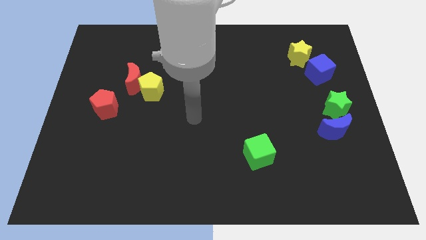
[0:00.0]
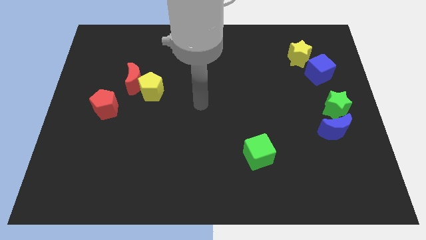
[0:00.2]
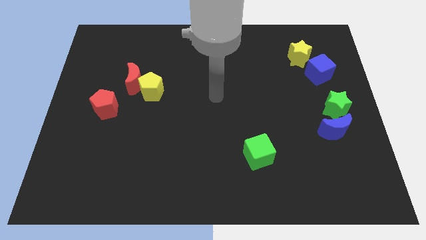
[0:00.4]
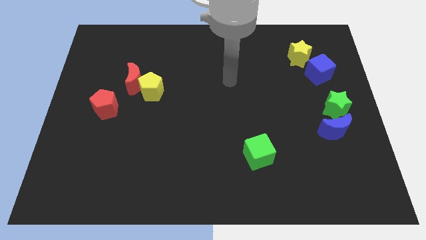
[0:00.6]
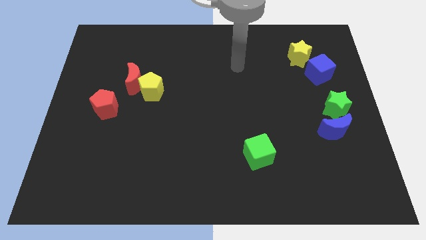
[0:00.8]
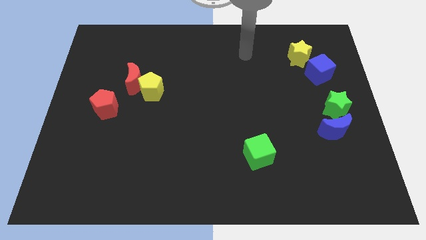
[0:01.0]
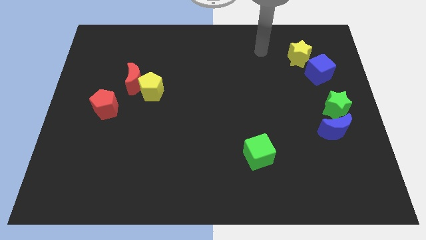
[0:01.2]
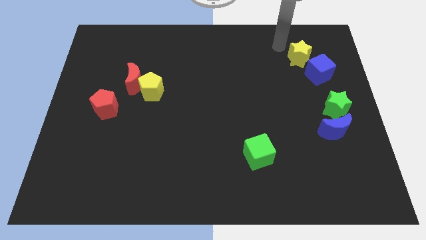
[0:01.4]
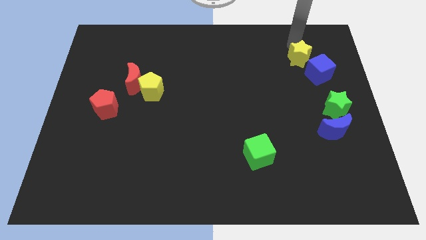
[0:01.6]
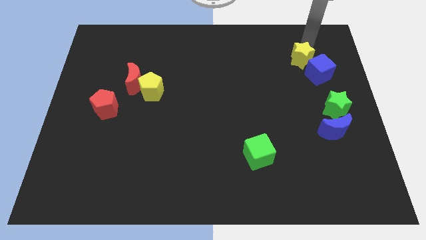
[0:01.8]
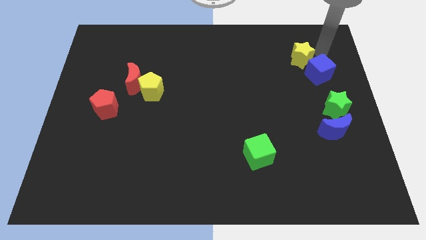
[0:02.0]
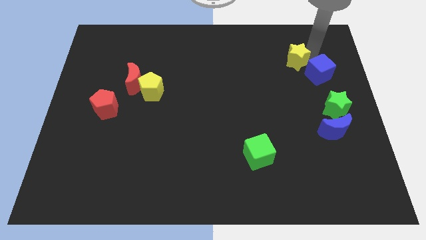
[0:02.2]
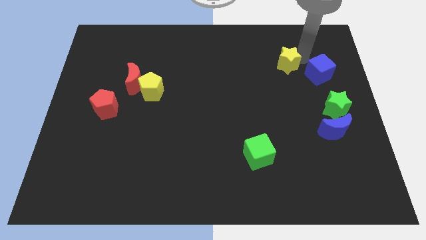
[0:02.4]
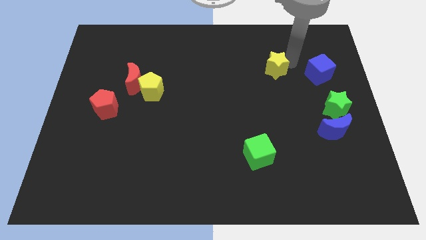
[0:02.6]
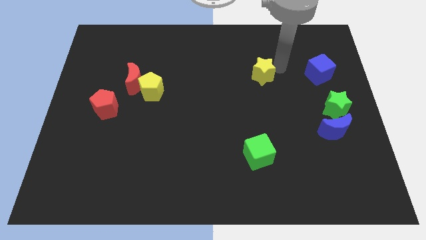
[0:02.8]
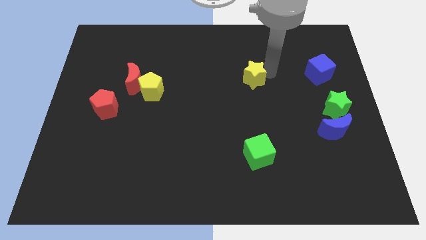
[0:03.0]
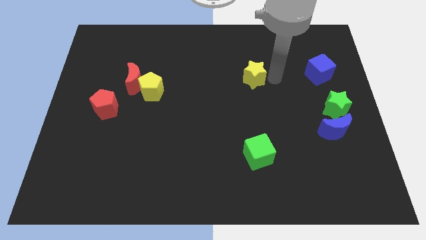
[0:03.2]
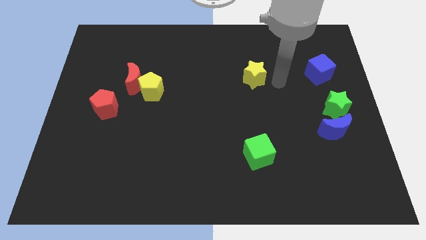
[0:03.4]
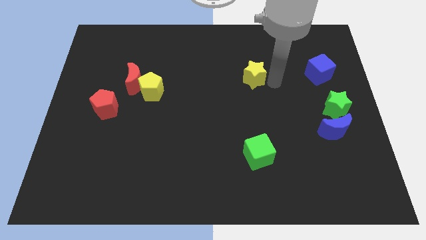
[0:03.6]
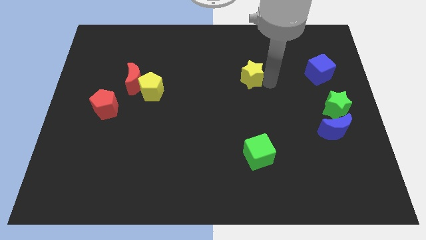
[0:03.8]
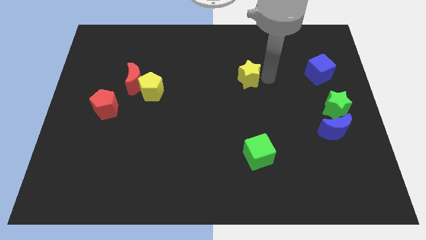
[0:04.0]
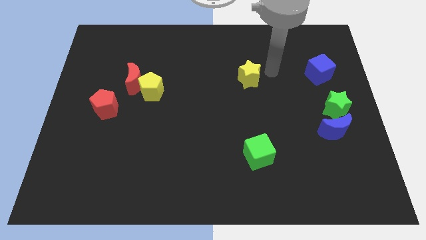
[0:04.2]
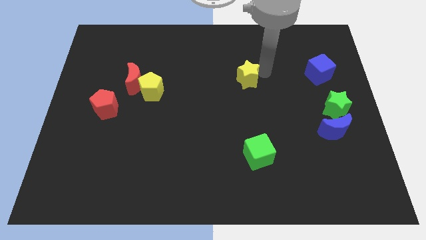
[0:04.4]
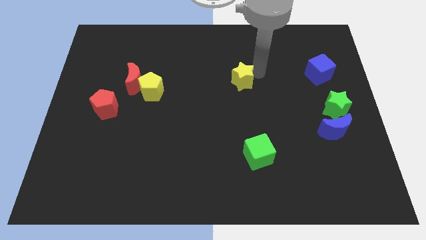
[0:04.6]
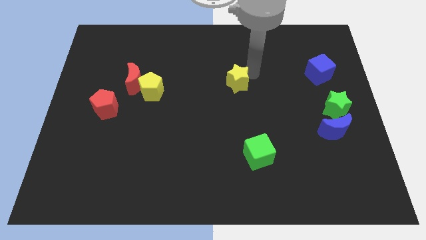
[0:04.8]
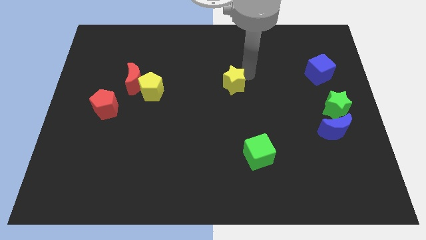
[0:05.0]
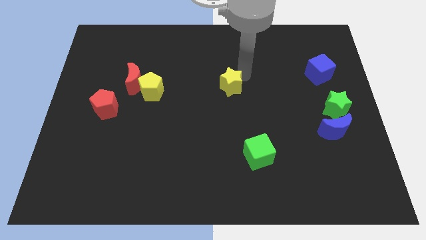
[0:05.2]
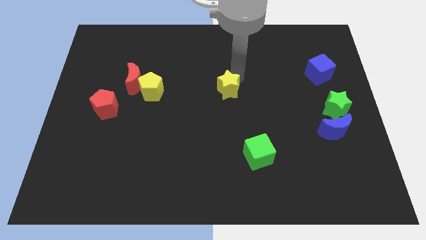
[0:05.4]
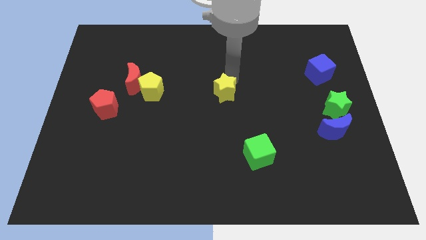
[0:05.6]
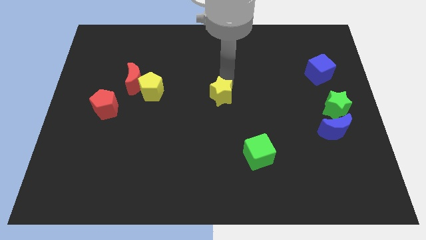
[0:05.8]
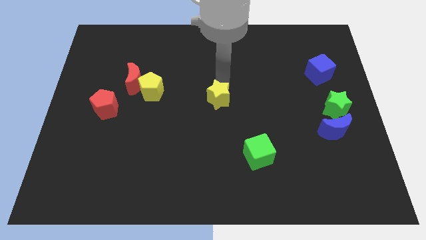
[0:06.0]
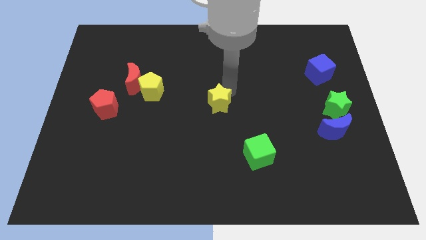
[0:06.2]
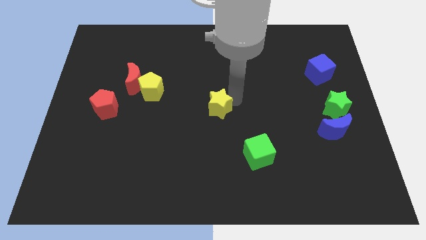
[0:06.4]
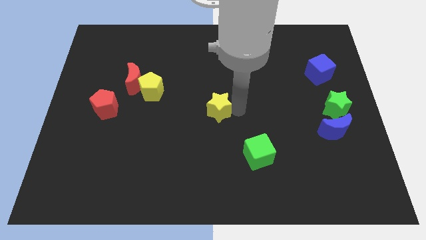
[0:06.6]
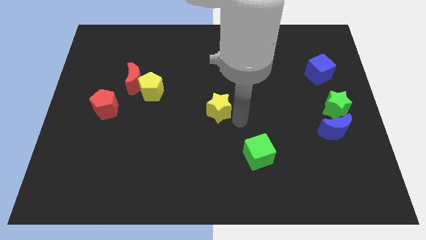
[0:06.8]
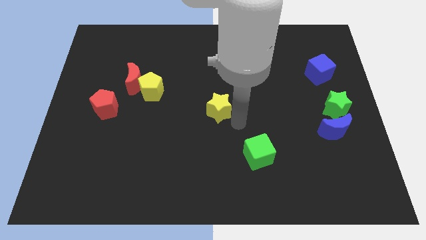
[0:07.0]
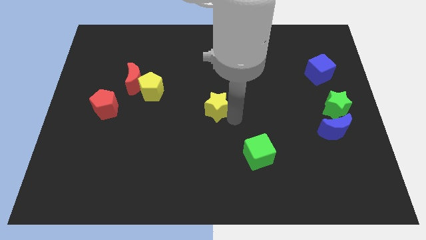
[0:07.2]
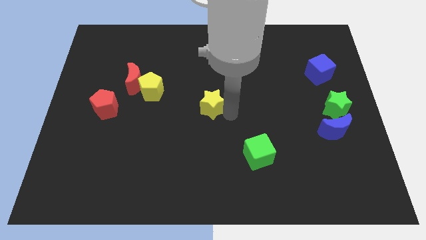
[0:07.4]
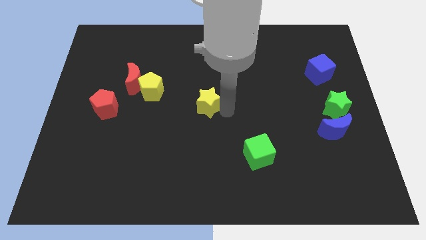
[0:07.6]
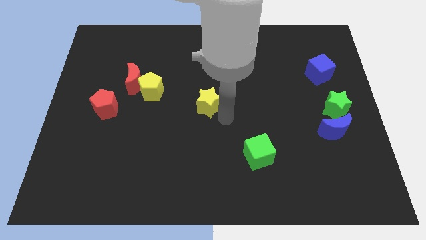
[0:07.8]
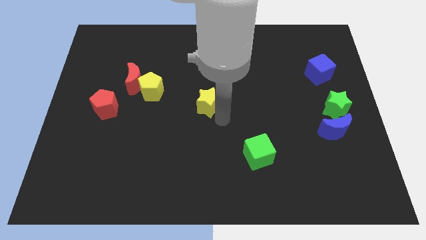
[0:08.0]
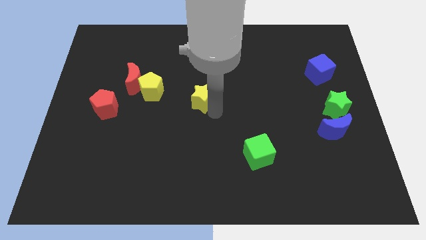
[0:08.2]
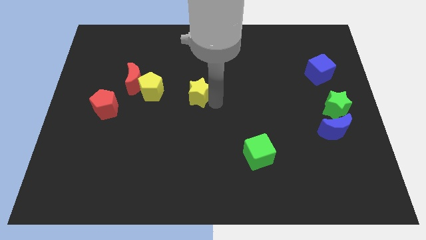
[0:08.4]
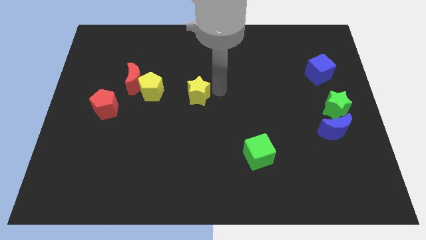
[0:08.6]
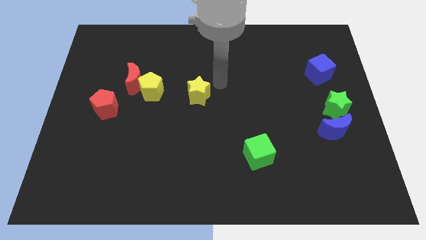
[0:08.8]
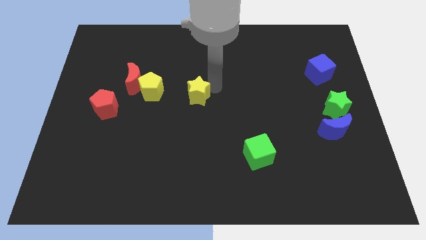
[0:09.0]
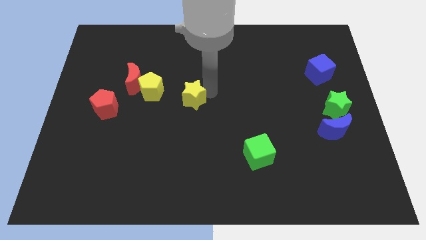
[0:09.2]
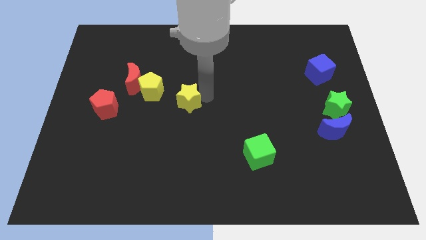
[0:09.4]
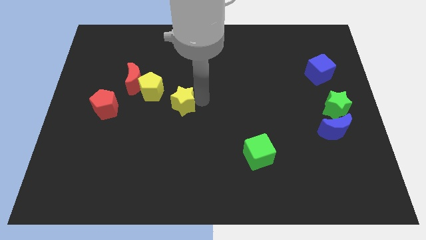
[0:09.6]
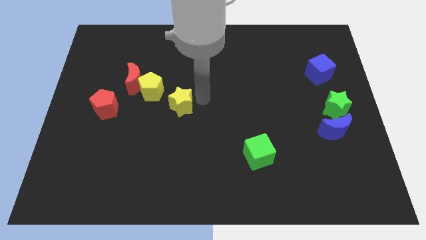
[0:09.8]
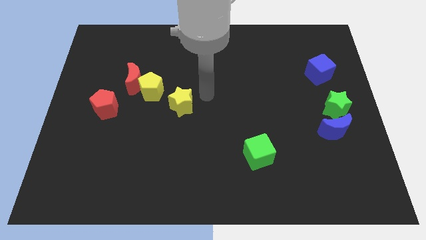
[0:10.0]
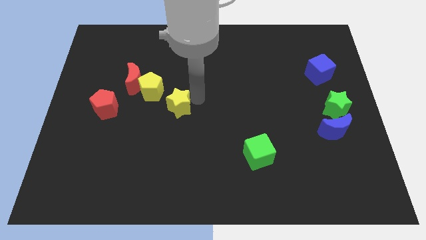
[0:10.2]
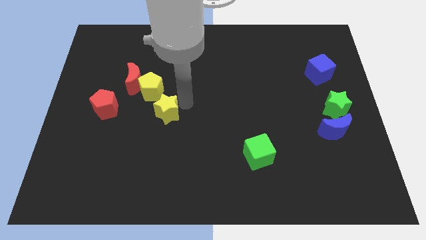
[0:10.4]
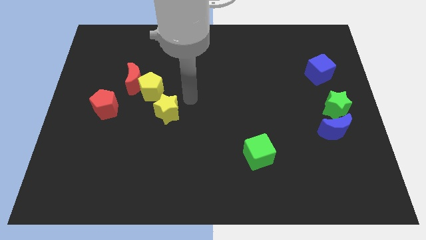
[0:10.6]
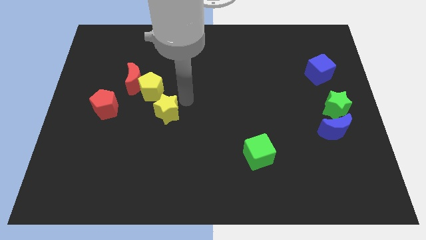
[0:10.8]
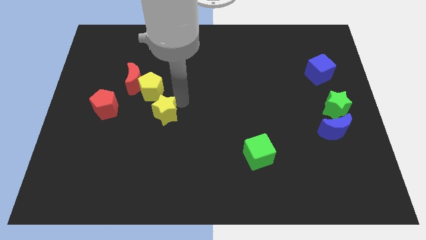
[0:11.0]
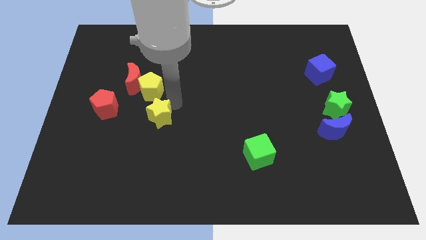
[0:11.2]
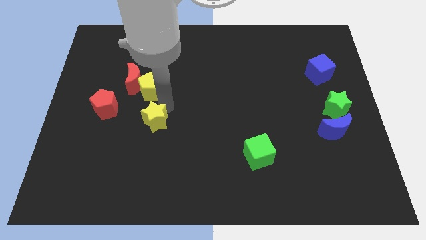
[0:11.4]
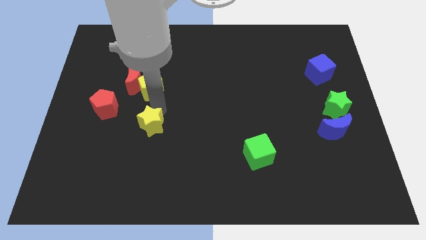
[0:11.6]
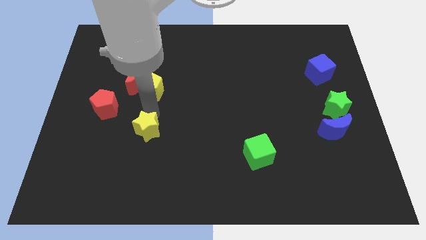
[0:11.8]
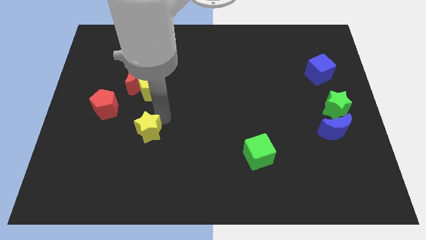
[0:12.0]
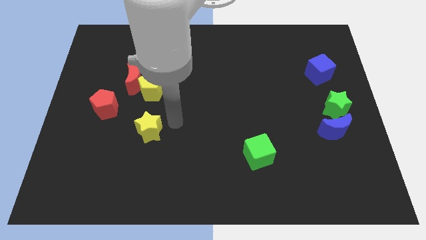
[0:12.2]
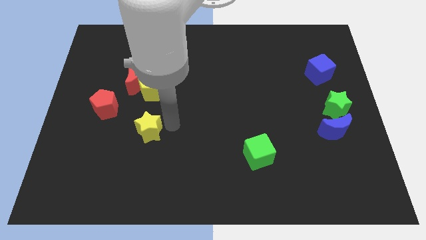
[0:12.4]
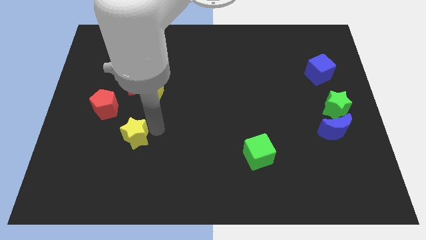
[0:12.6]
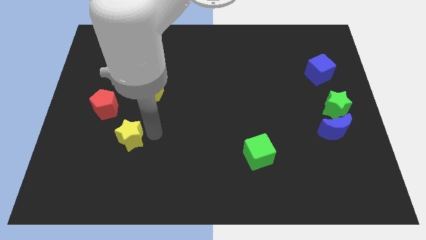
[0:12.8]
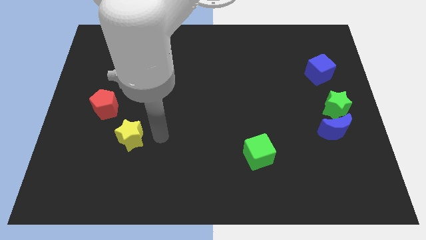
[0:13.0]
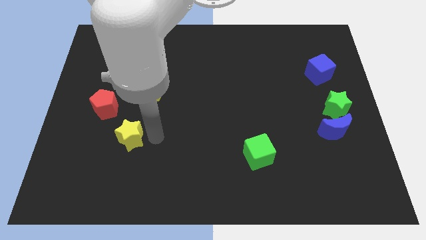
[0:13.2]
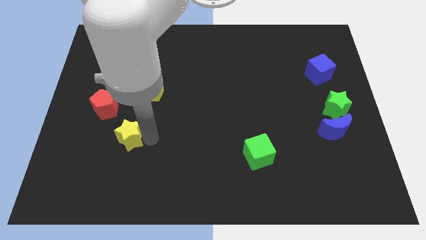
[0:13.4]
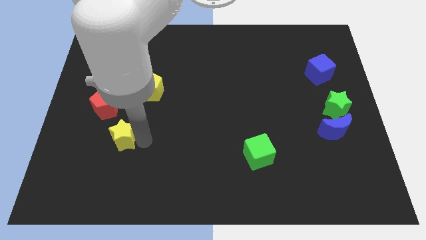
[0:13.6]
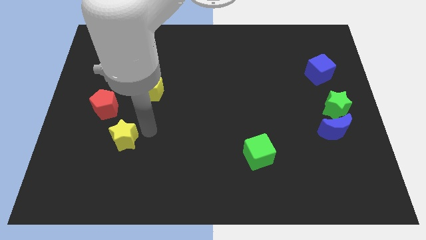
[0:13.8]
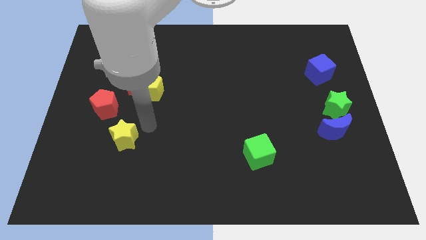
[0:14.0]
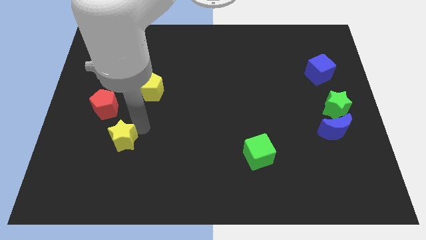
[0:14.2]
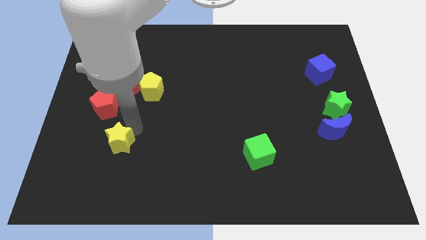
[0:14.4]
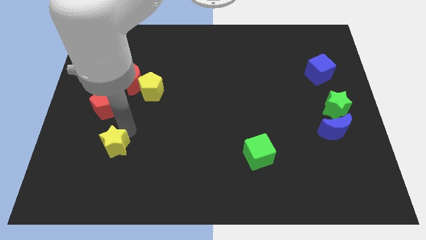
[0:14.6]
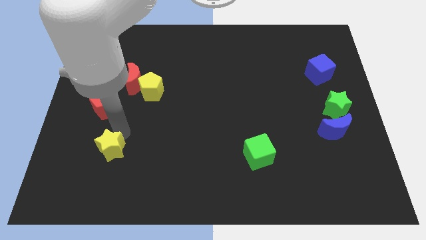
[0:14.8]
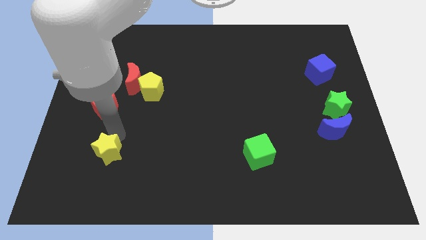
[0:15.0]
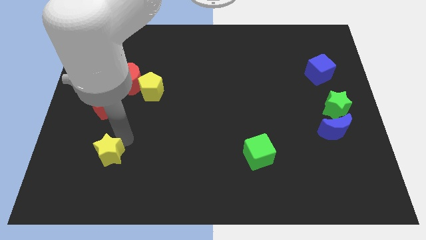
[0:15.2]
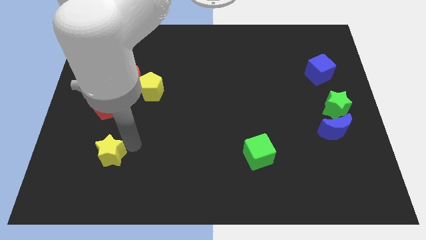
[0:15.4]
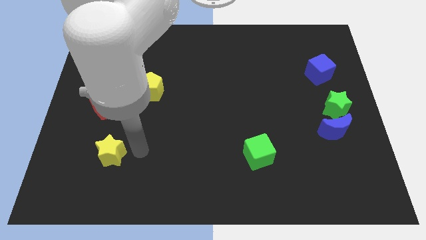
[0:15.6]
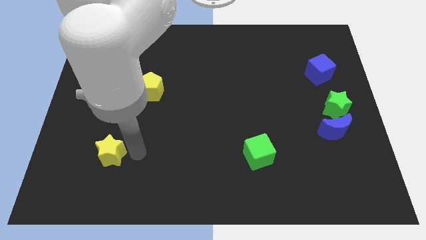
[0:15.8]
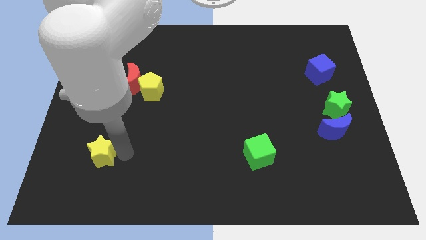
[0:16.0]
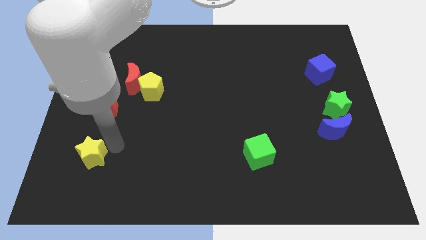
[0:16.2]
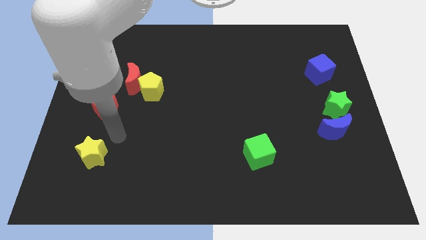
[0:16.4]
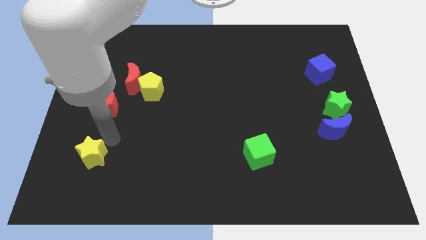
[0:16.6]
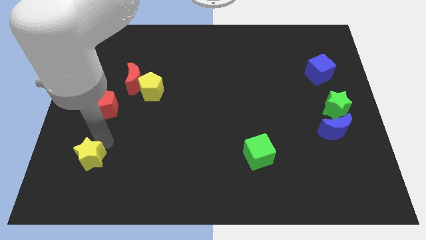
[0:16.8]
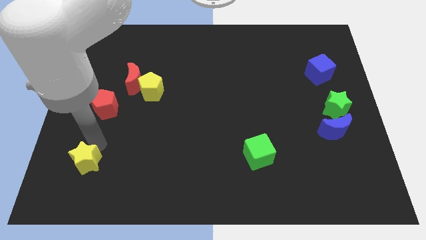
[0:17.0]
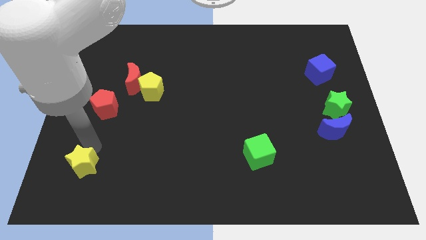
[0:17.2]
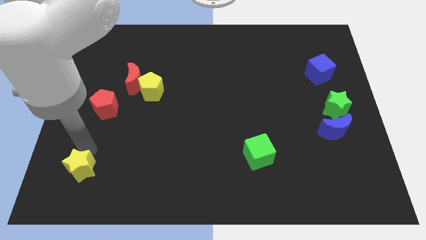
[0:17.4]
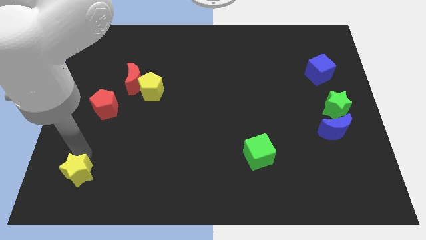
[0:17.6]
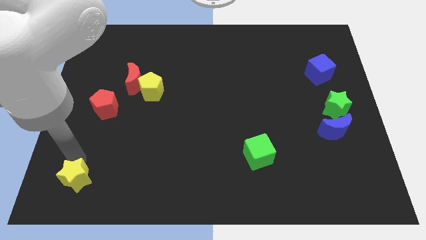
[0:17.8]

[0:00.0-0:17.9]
move the yellow star to the bottom left corner
